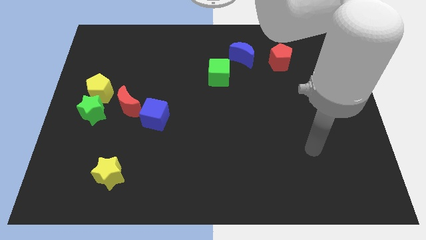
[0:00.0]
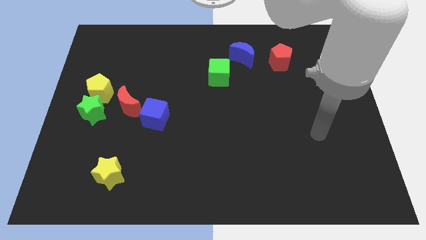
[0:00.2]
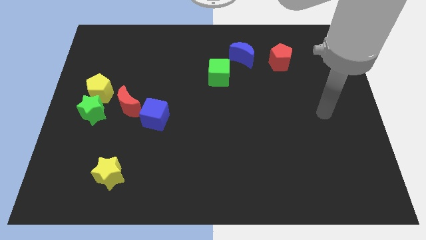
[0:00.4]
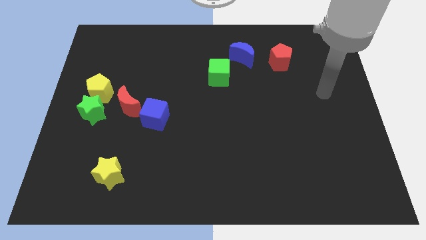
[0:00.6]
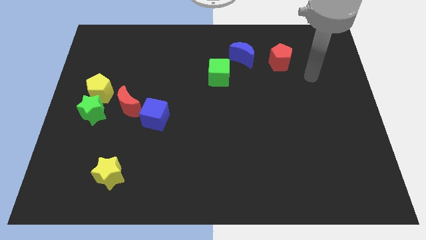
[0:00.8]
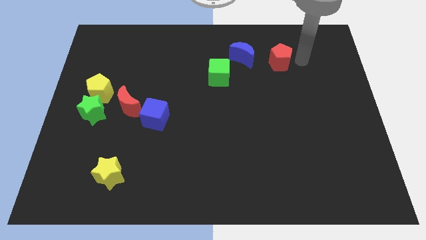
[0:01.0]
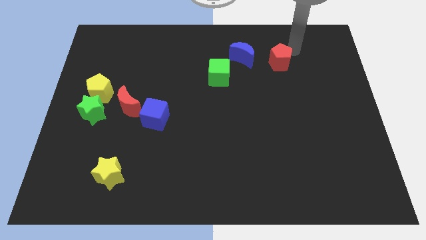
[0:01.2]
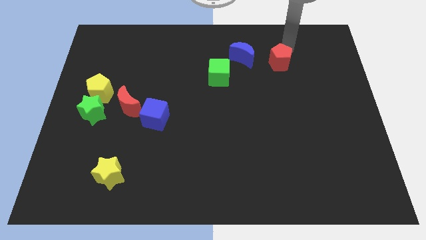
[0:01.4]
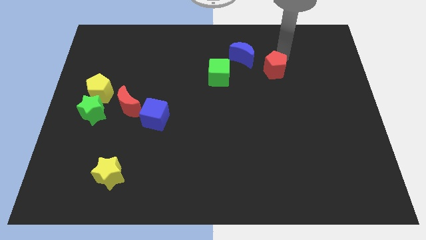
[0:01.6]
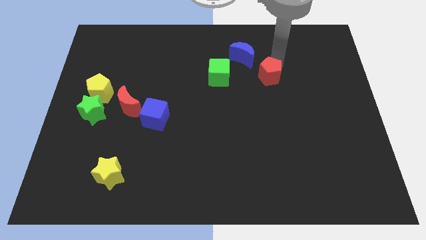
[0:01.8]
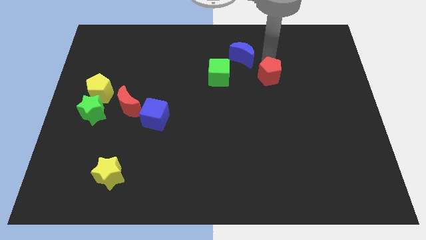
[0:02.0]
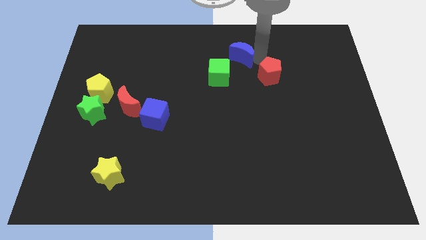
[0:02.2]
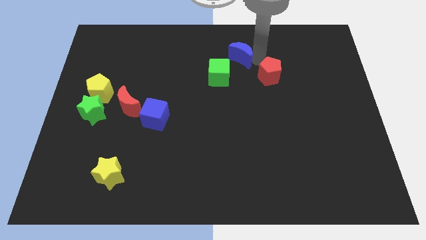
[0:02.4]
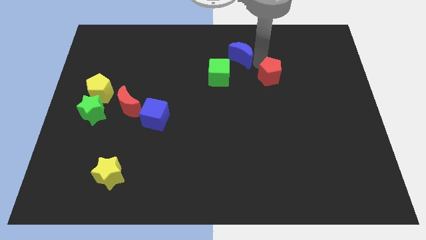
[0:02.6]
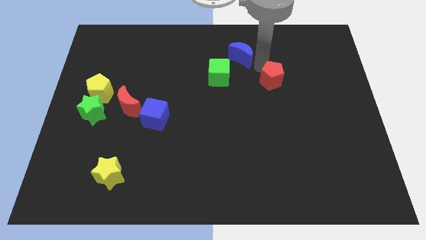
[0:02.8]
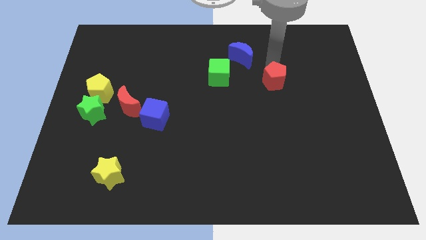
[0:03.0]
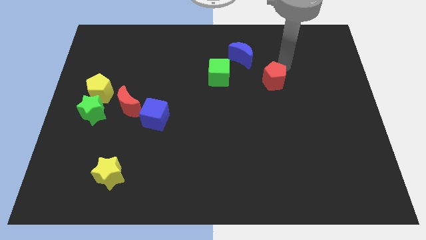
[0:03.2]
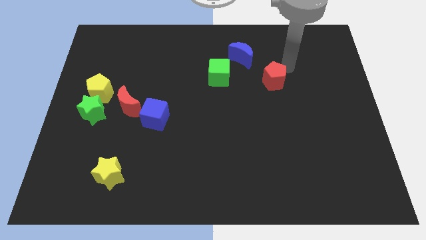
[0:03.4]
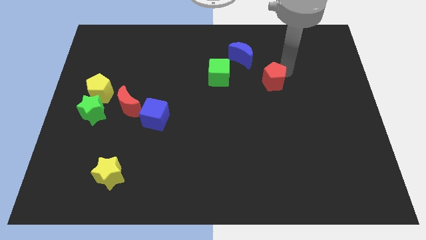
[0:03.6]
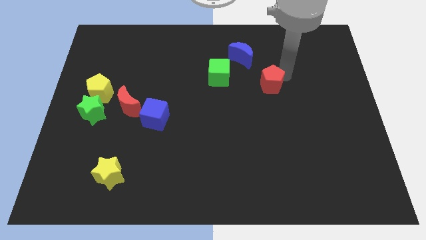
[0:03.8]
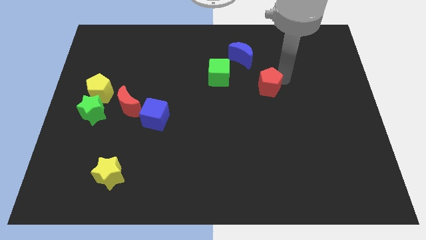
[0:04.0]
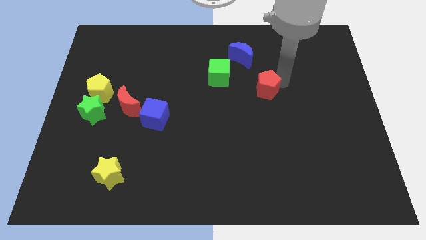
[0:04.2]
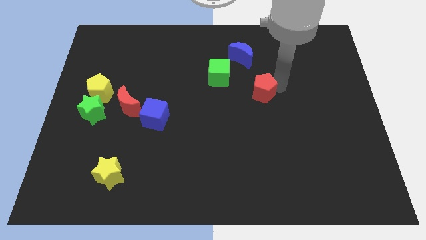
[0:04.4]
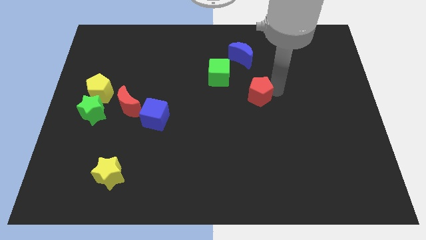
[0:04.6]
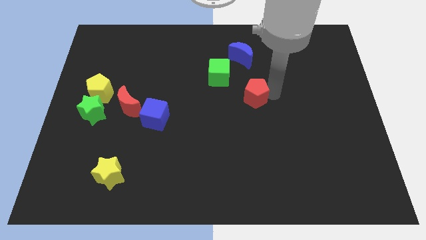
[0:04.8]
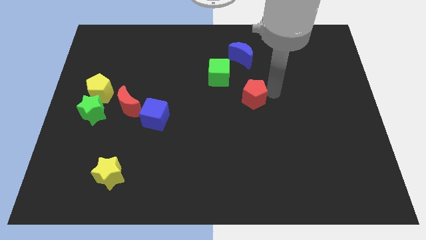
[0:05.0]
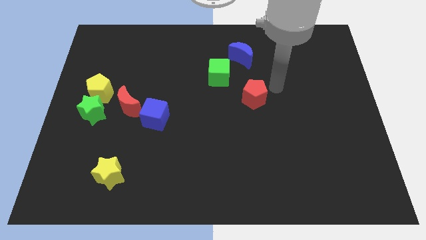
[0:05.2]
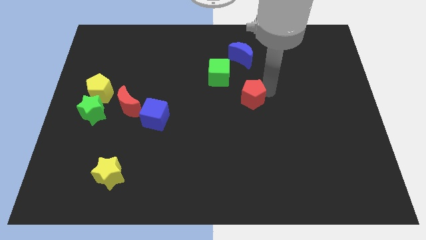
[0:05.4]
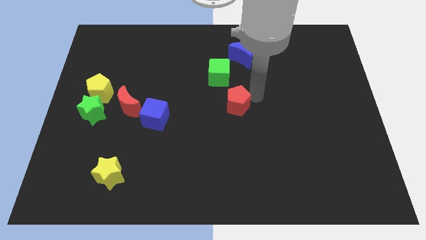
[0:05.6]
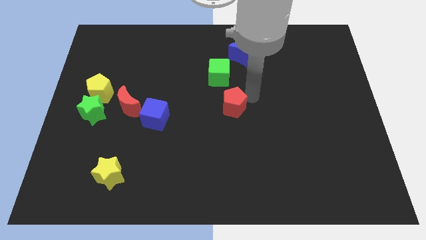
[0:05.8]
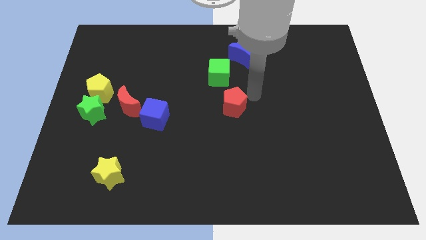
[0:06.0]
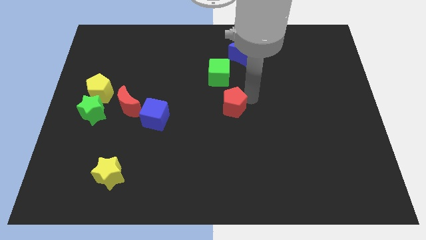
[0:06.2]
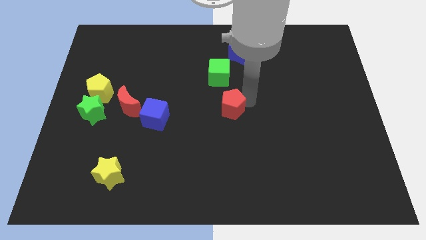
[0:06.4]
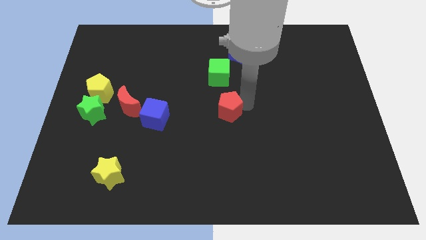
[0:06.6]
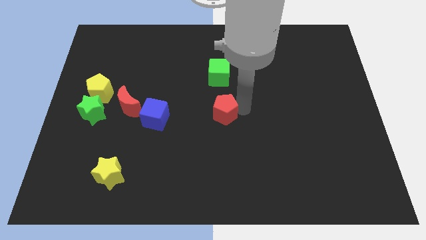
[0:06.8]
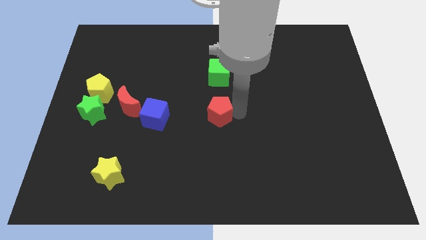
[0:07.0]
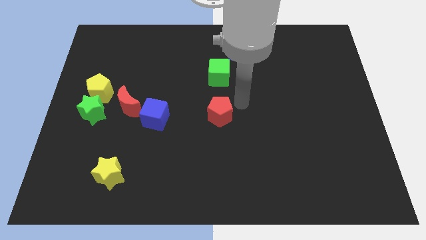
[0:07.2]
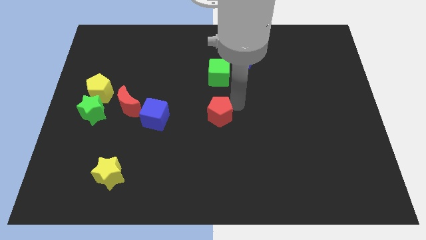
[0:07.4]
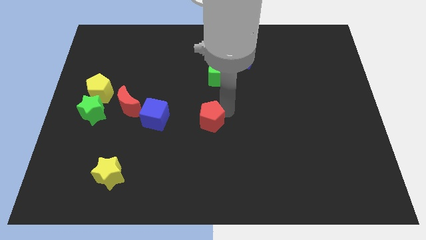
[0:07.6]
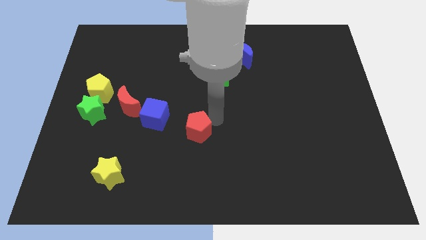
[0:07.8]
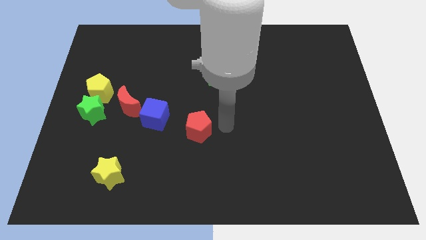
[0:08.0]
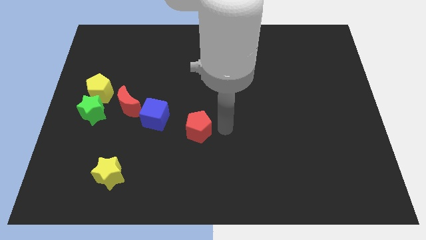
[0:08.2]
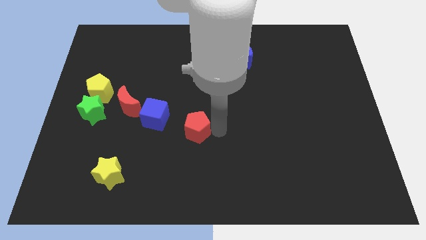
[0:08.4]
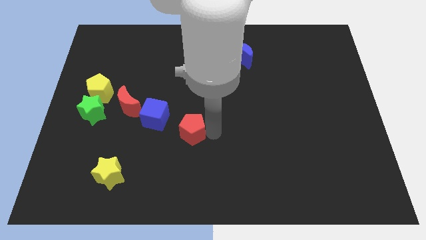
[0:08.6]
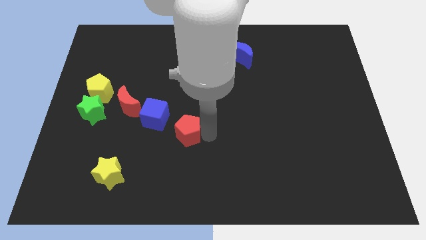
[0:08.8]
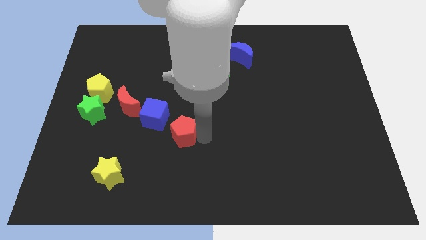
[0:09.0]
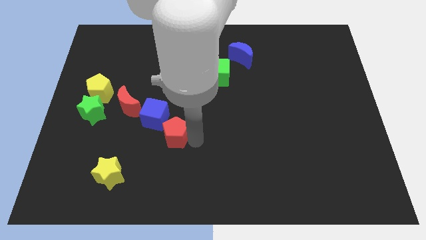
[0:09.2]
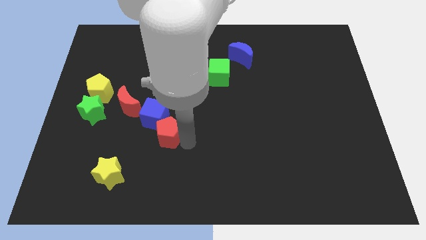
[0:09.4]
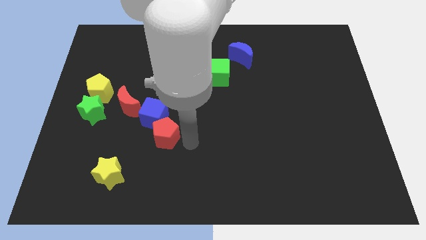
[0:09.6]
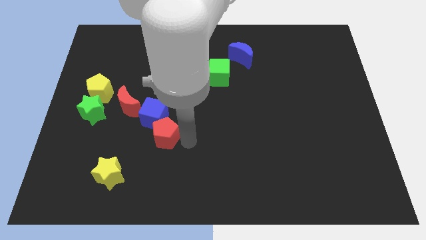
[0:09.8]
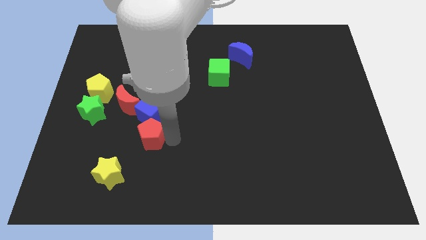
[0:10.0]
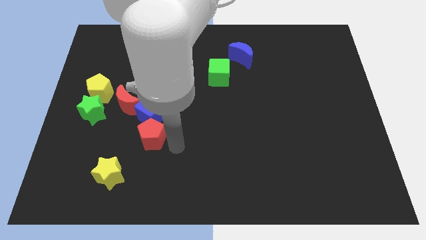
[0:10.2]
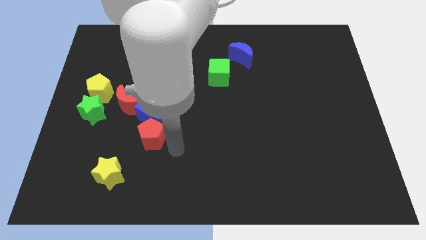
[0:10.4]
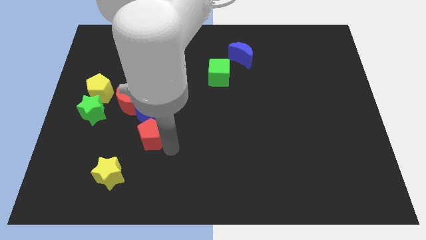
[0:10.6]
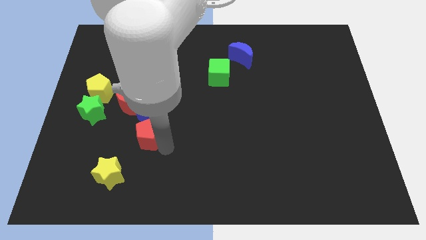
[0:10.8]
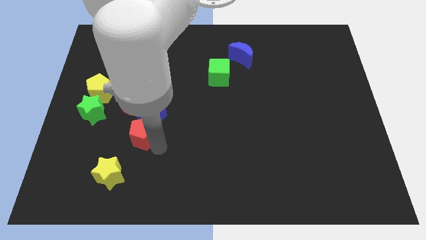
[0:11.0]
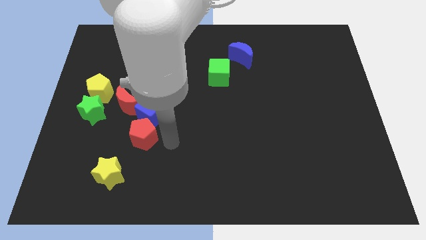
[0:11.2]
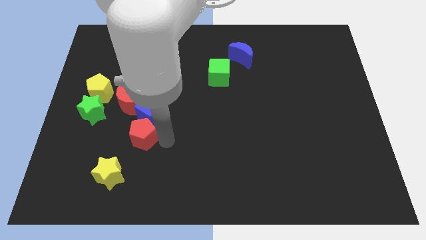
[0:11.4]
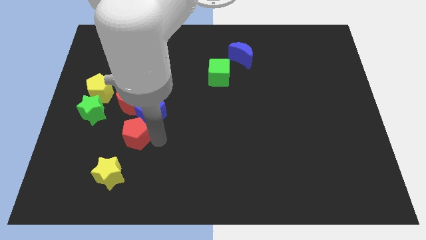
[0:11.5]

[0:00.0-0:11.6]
move the red pentagon above the yellow star

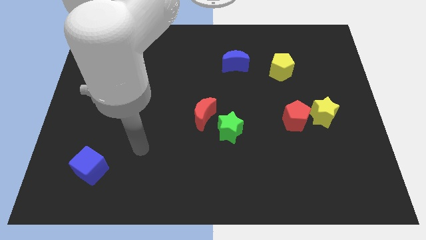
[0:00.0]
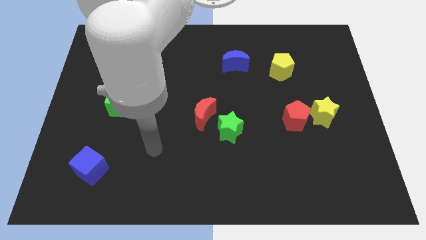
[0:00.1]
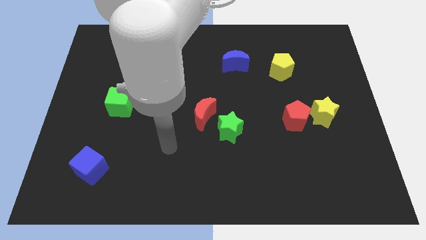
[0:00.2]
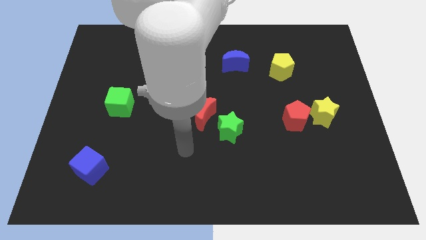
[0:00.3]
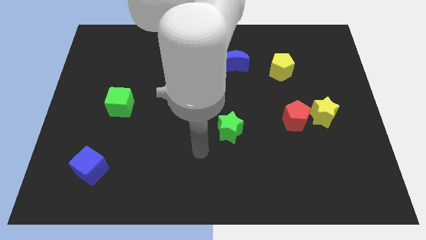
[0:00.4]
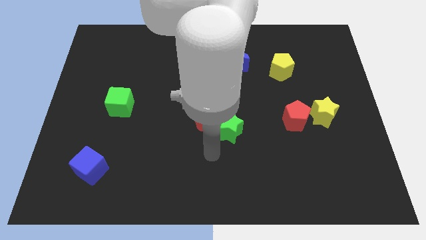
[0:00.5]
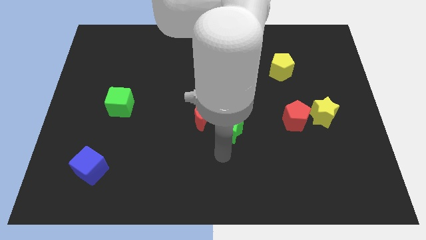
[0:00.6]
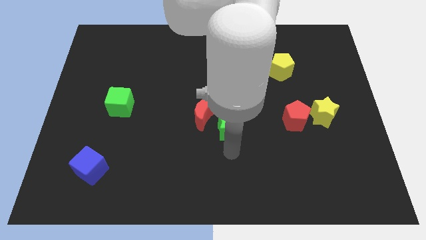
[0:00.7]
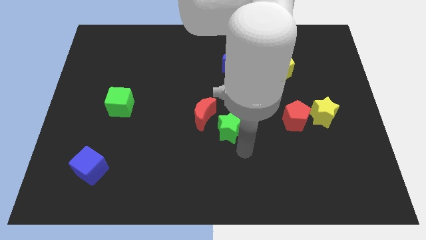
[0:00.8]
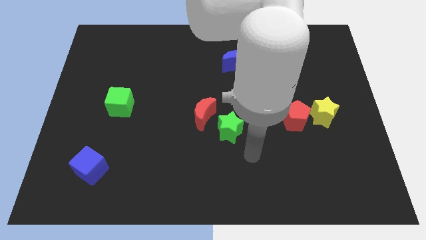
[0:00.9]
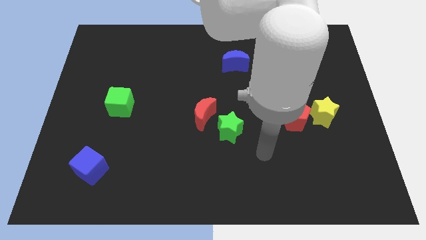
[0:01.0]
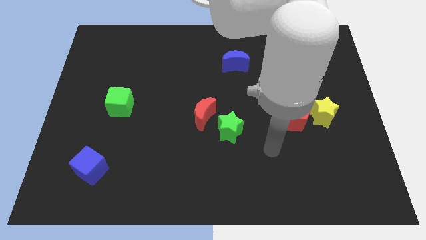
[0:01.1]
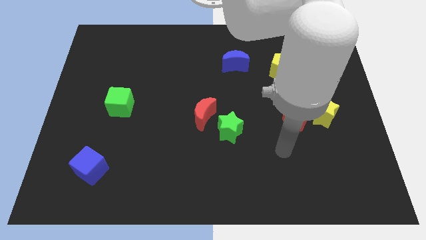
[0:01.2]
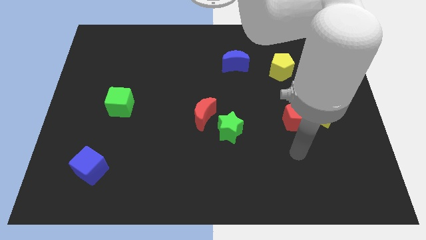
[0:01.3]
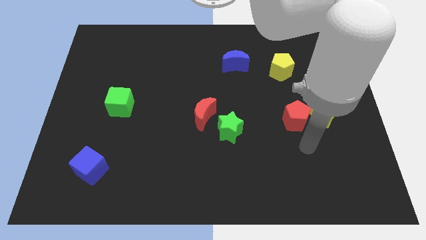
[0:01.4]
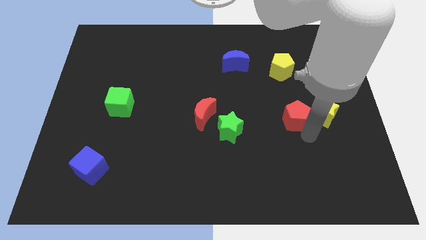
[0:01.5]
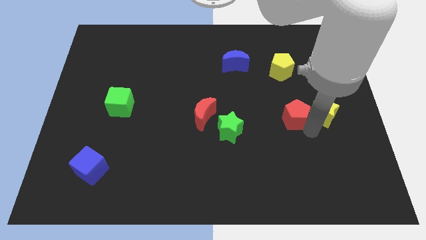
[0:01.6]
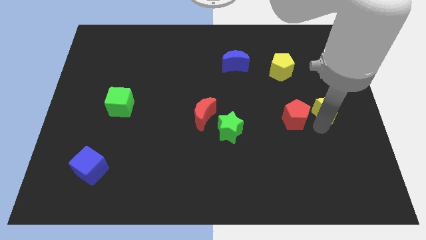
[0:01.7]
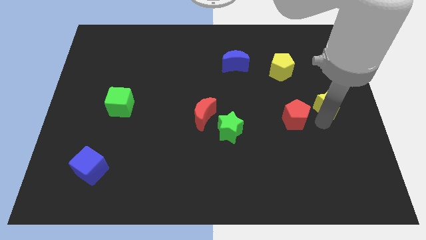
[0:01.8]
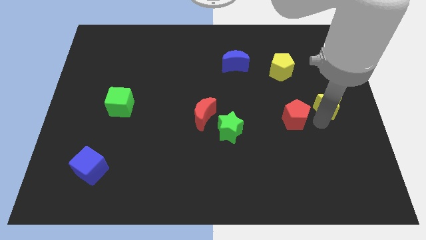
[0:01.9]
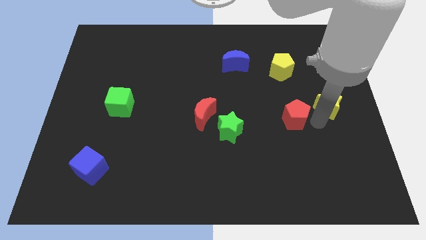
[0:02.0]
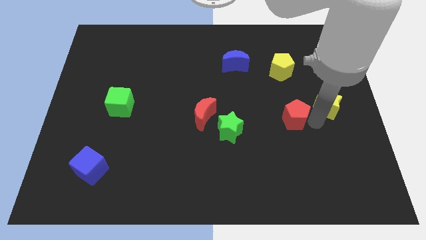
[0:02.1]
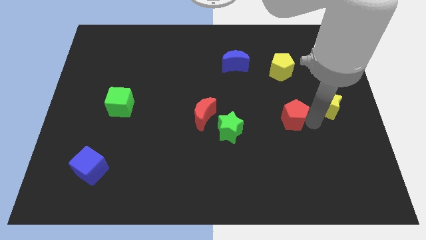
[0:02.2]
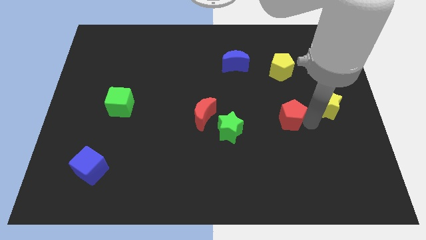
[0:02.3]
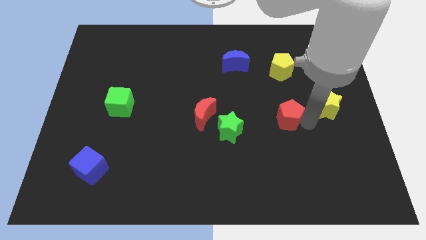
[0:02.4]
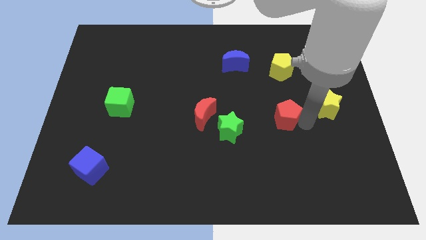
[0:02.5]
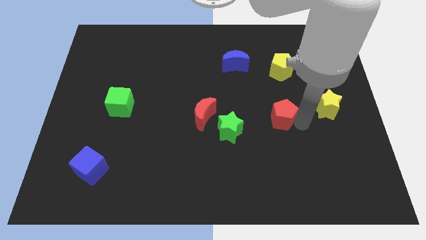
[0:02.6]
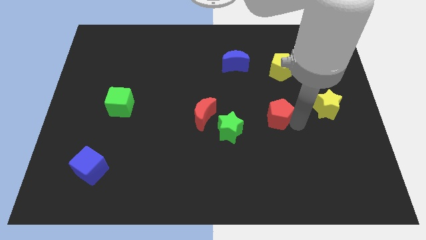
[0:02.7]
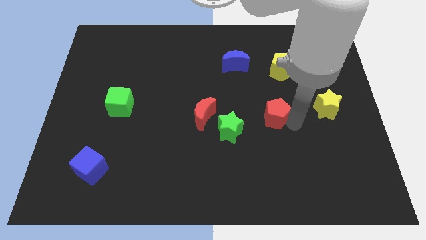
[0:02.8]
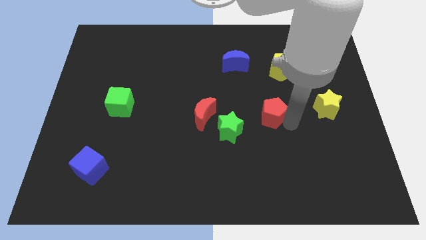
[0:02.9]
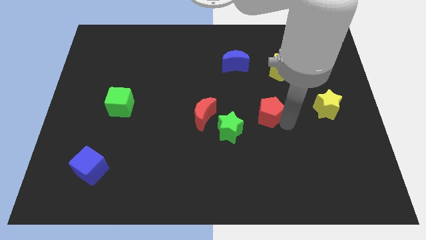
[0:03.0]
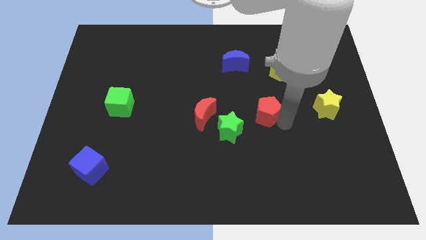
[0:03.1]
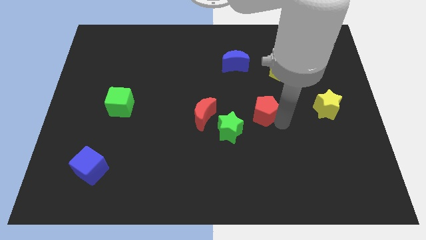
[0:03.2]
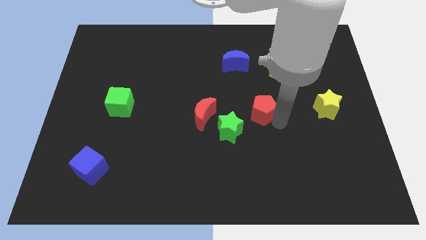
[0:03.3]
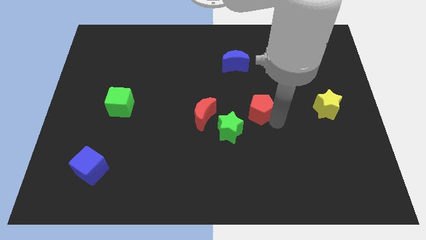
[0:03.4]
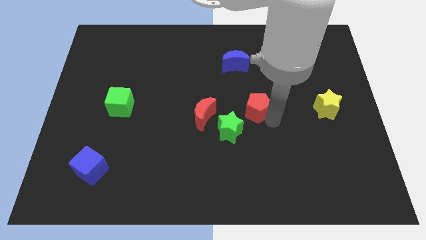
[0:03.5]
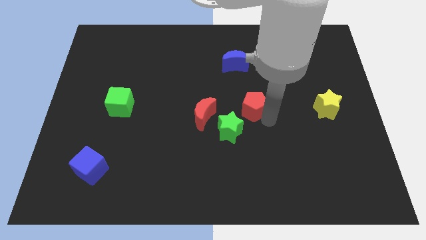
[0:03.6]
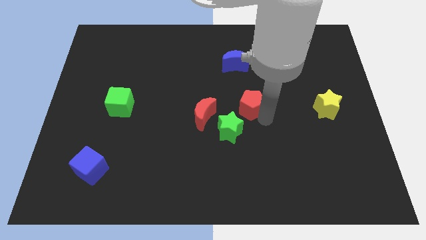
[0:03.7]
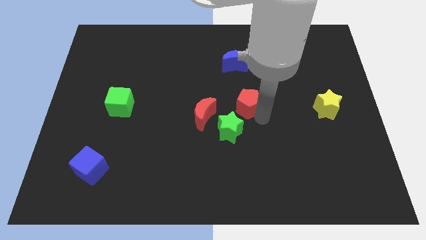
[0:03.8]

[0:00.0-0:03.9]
push the red pentagon to the top of the green star
